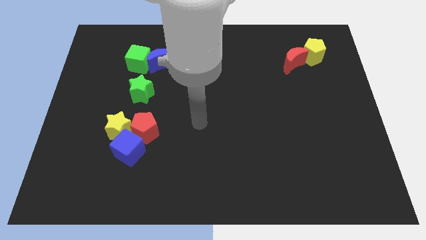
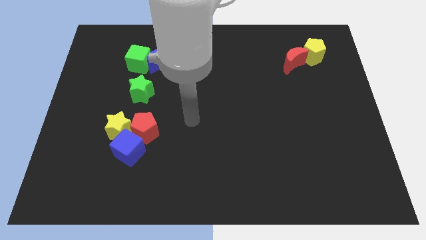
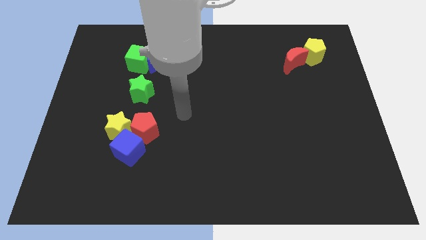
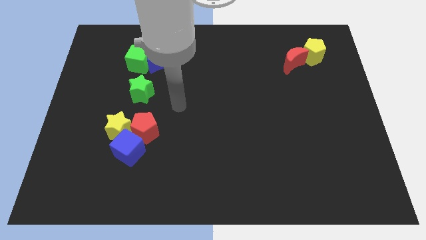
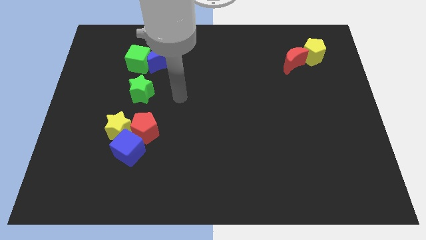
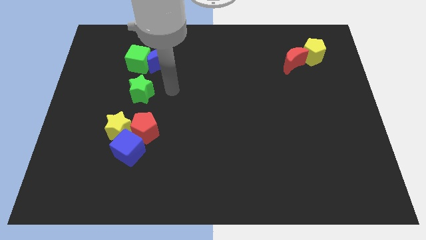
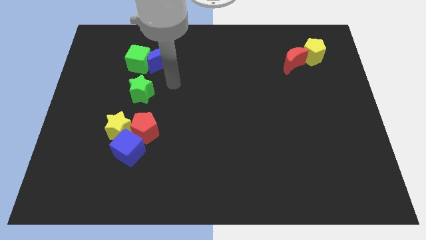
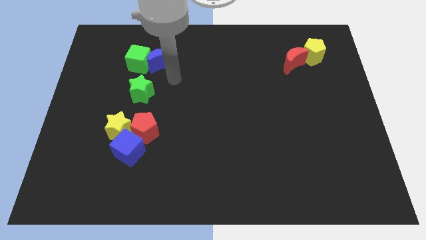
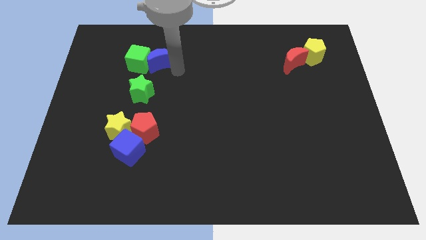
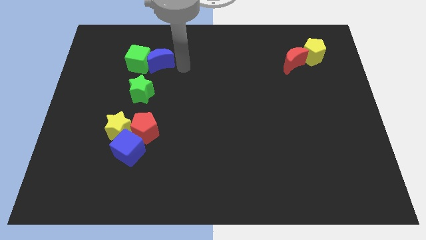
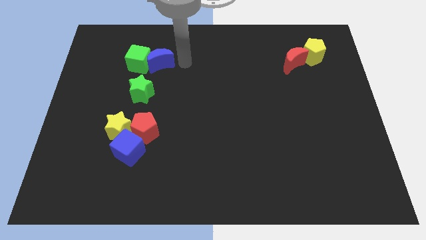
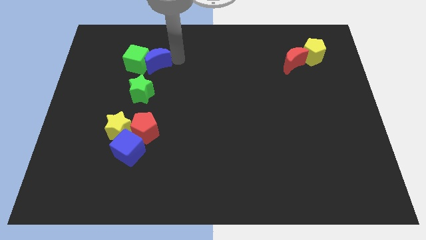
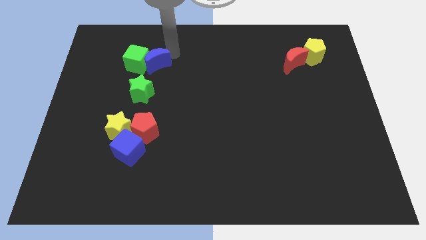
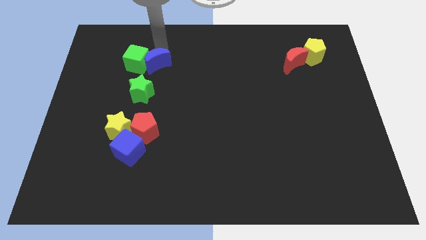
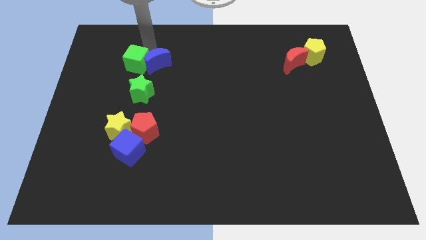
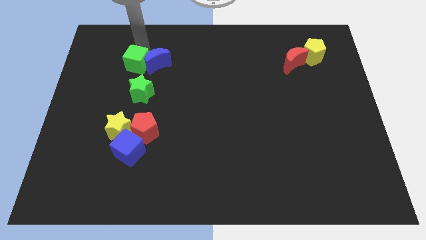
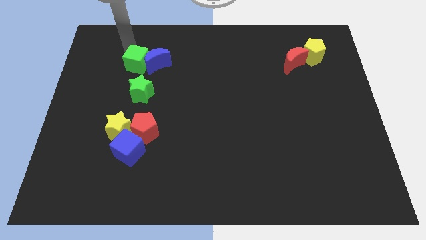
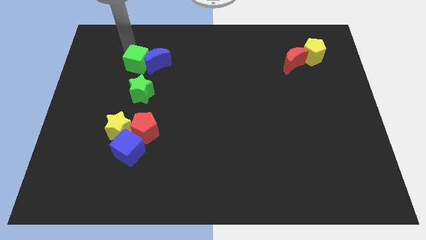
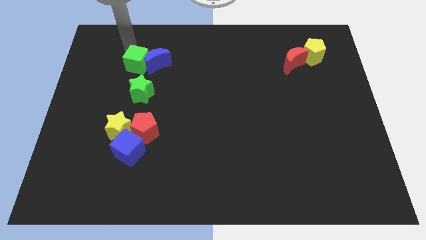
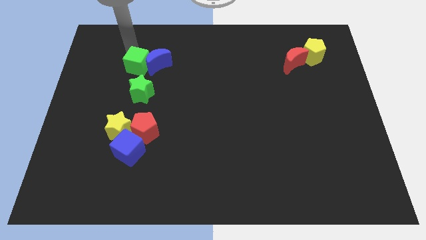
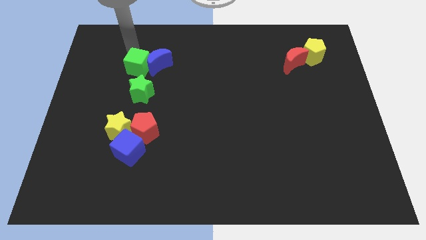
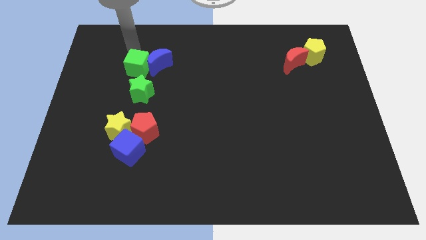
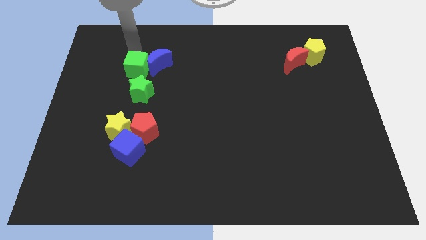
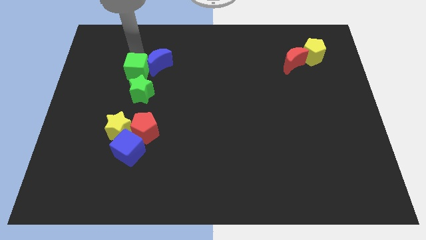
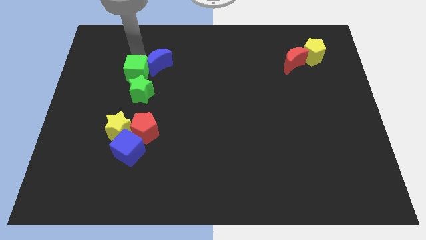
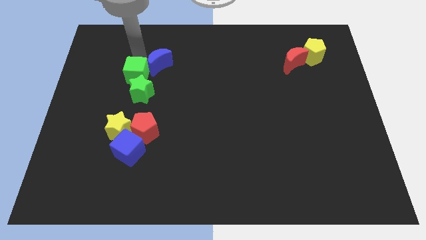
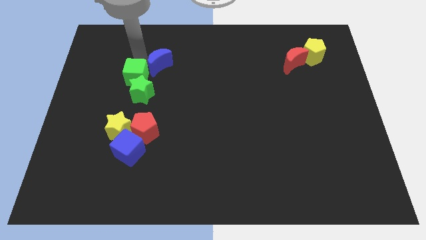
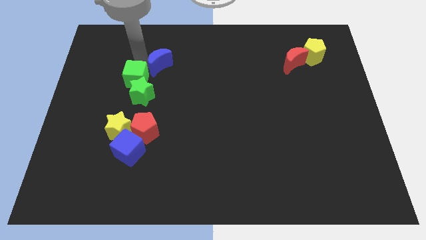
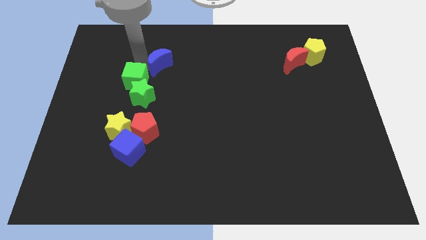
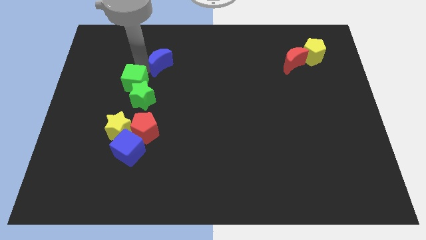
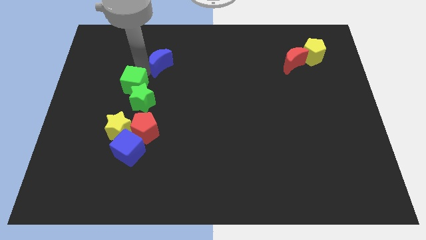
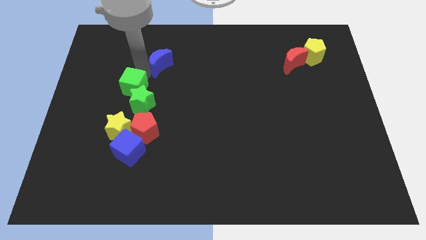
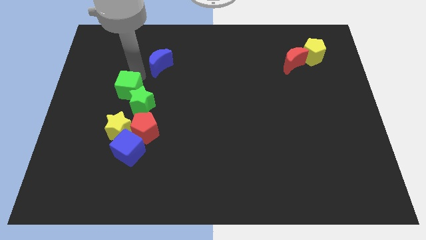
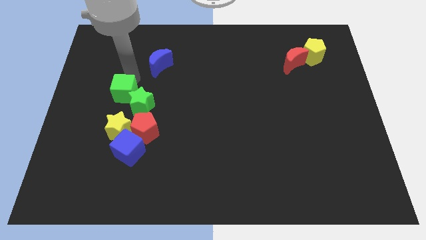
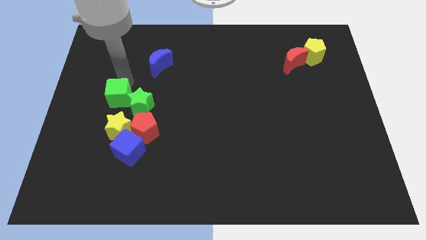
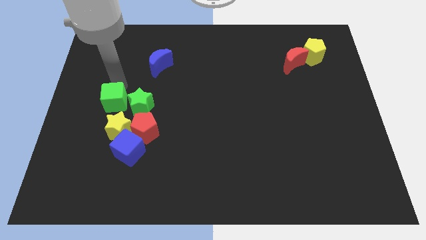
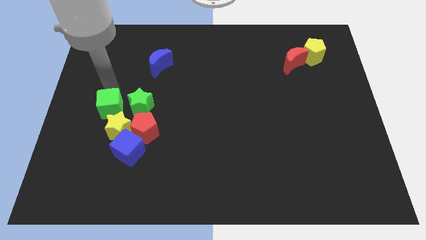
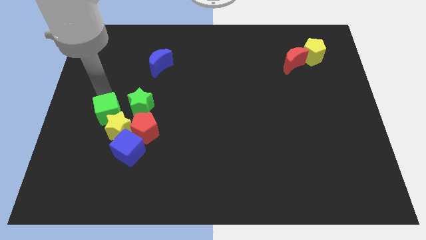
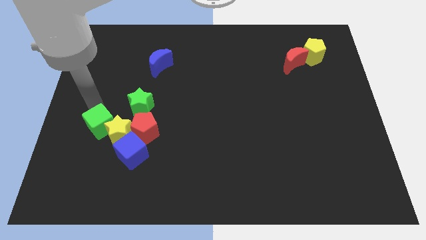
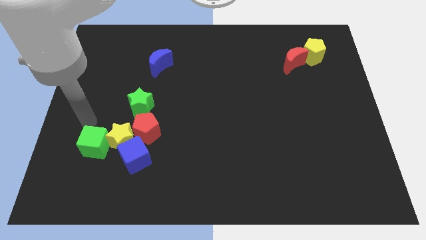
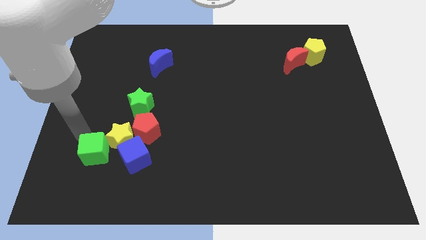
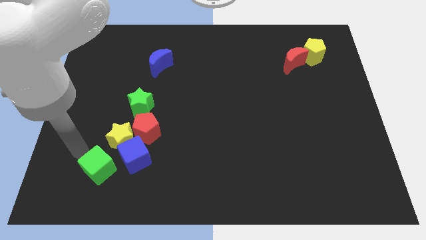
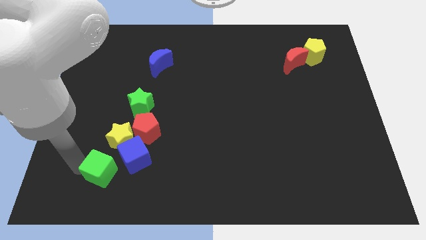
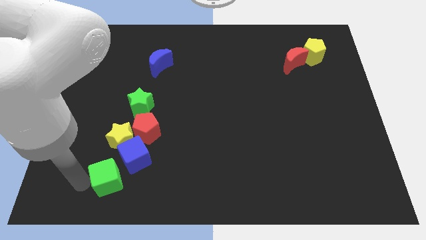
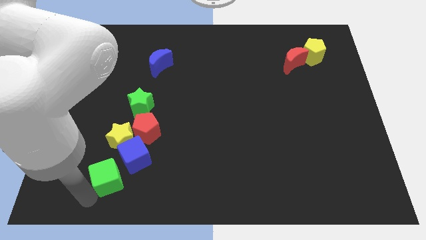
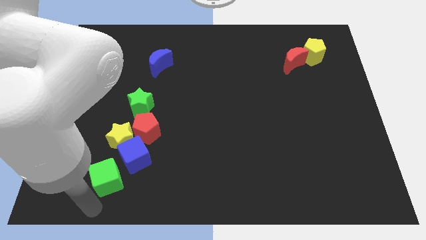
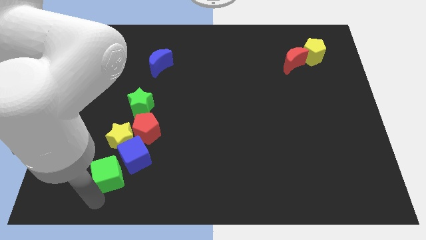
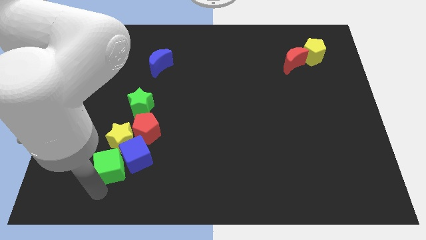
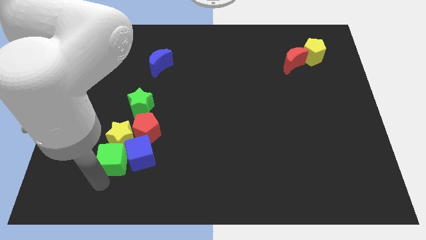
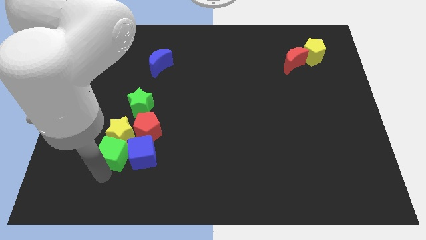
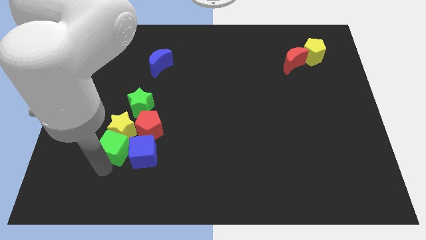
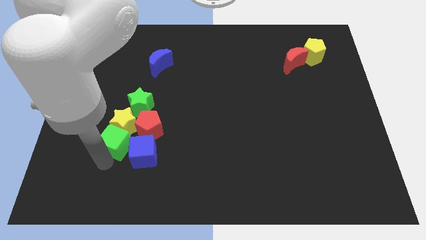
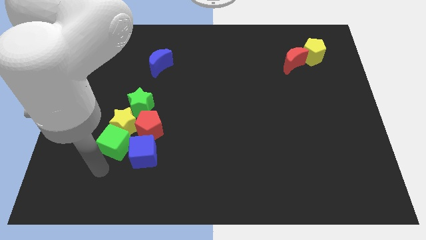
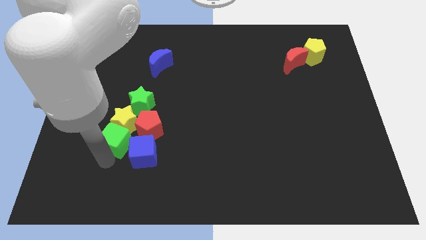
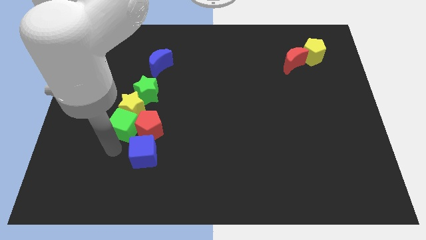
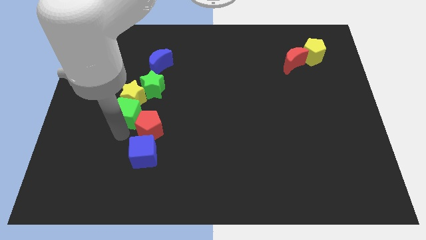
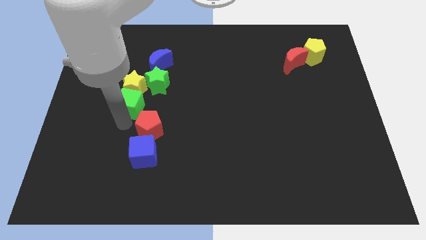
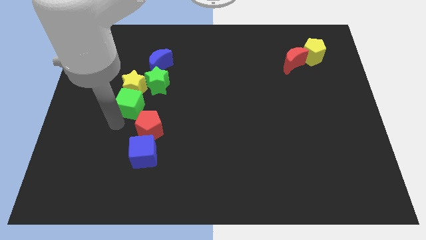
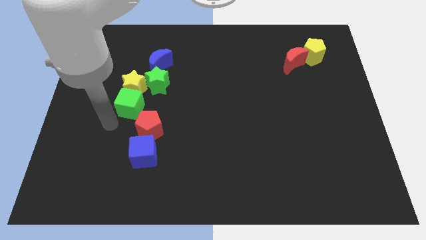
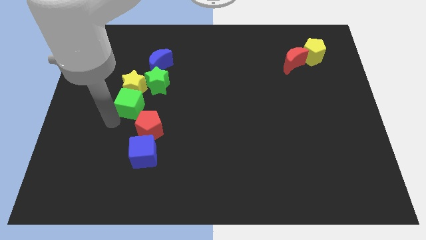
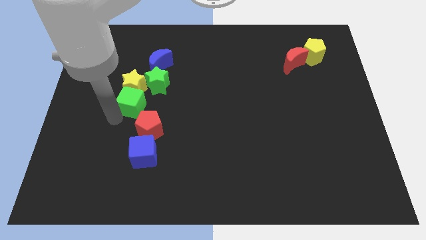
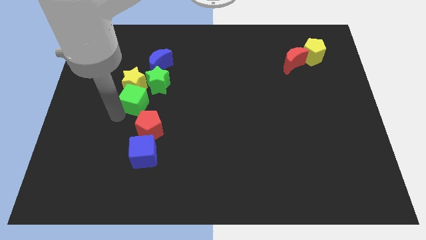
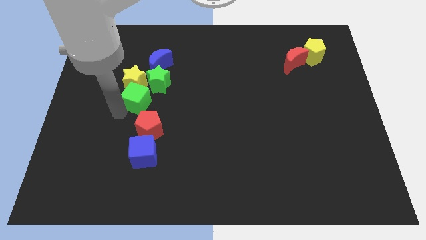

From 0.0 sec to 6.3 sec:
move the green cube down and to the right diagonally a little

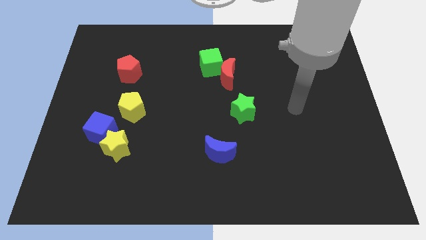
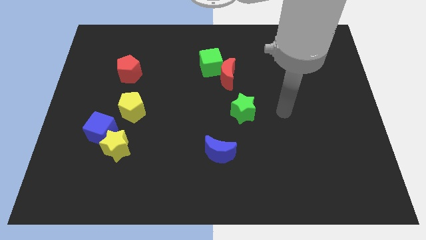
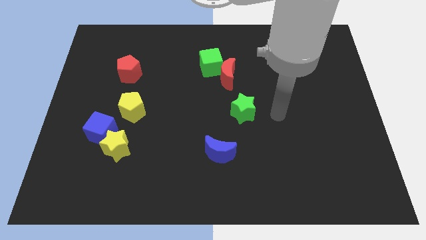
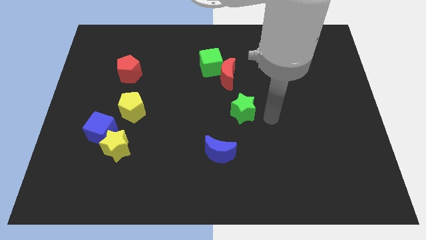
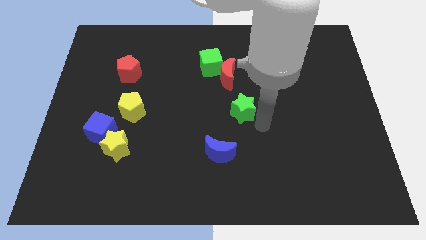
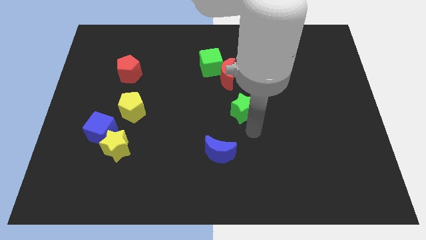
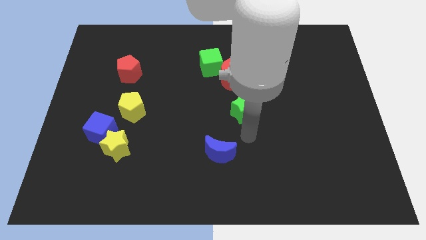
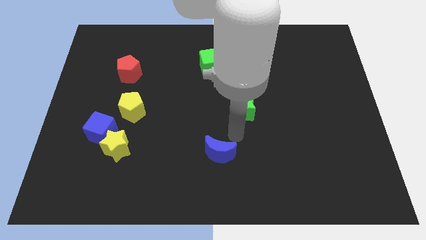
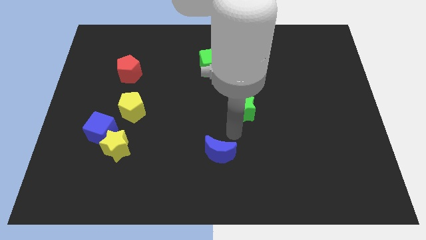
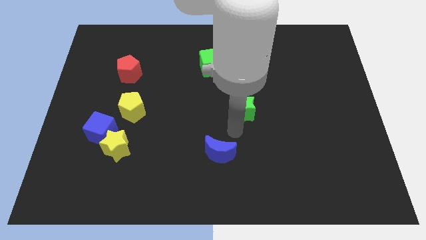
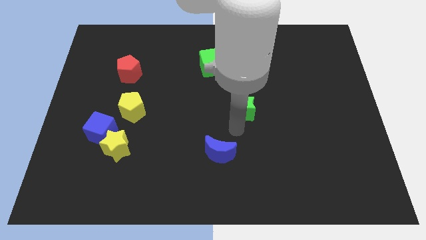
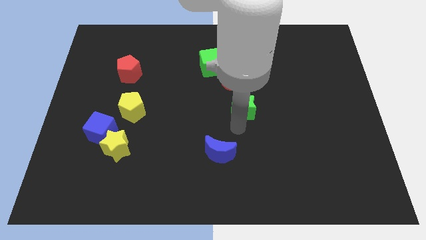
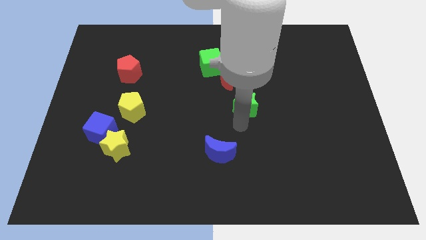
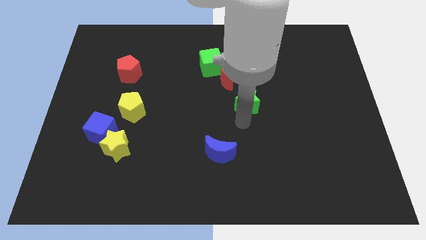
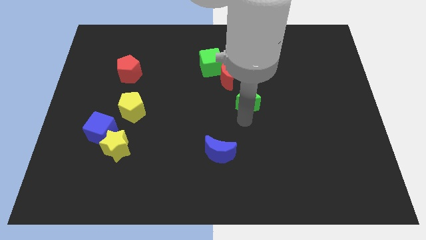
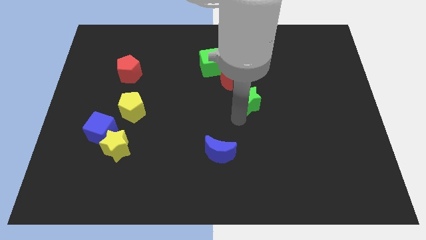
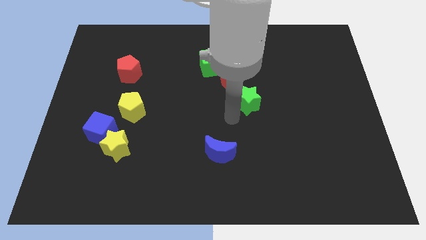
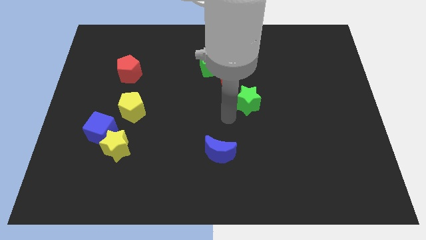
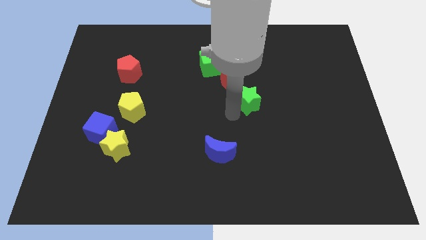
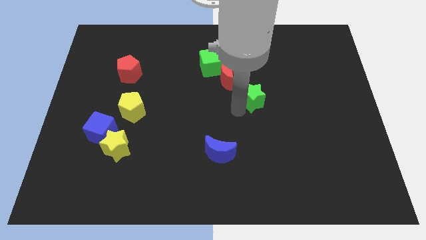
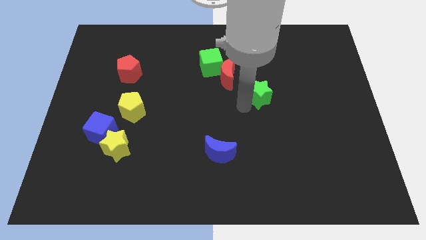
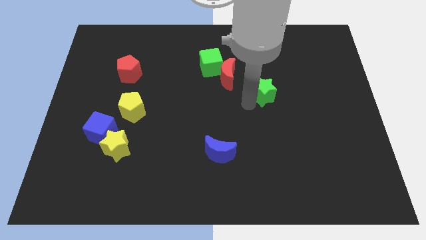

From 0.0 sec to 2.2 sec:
move the green star diagonally upwards and right a little
